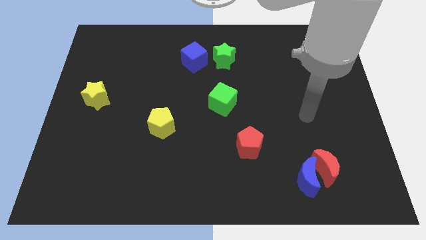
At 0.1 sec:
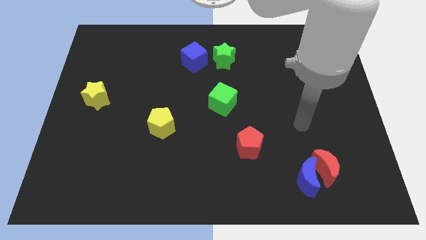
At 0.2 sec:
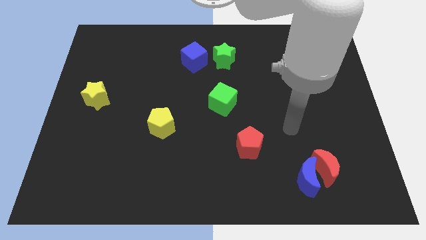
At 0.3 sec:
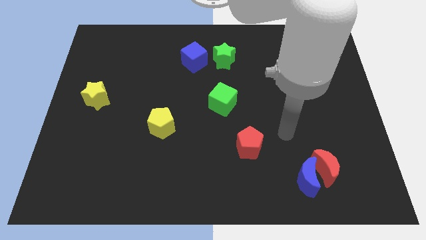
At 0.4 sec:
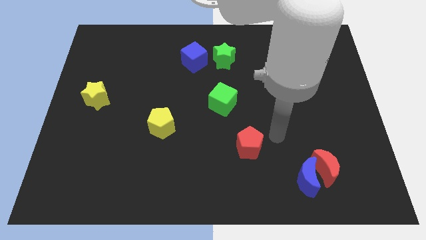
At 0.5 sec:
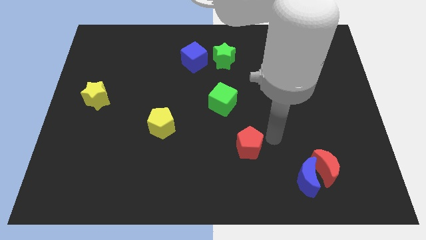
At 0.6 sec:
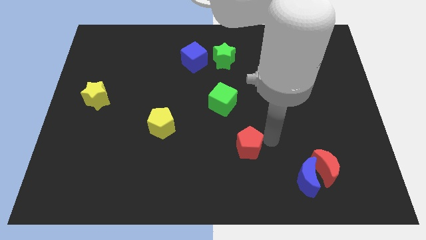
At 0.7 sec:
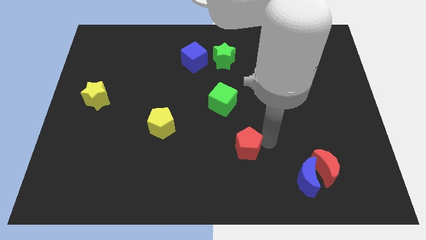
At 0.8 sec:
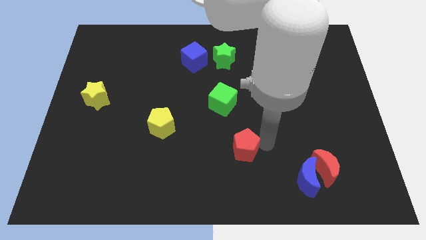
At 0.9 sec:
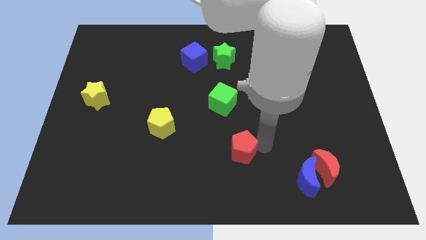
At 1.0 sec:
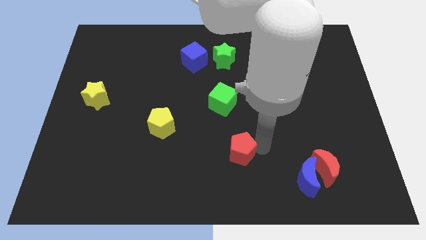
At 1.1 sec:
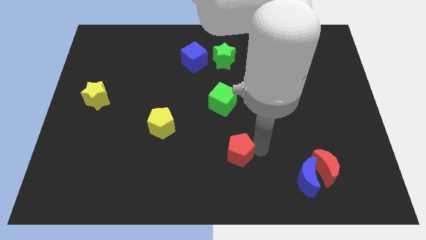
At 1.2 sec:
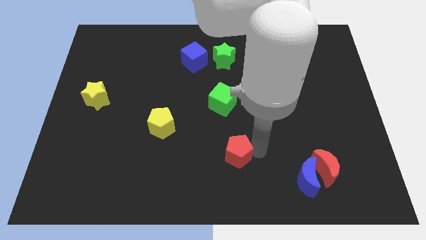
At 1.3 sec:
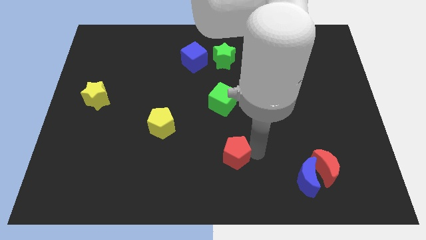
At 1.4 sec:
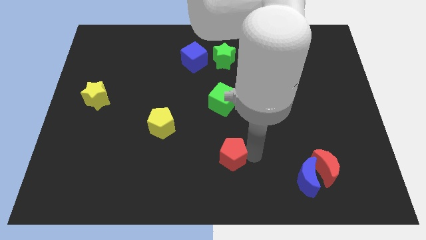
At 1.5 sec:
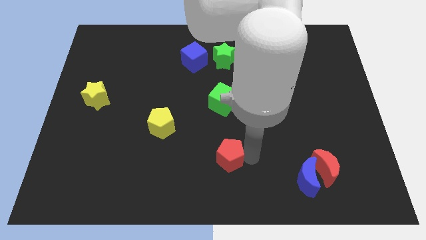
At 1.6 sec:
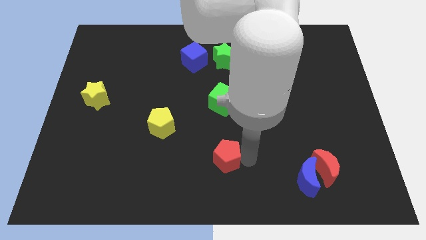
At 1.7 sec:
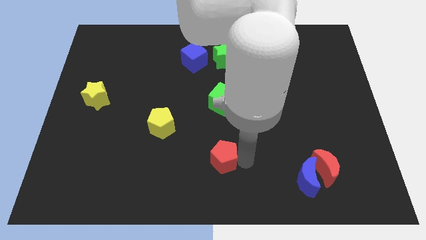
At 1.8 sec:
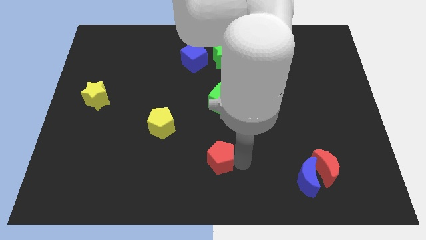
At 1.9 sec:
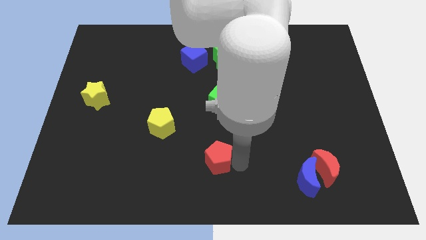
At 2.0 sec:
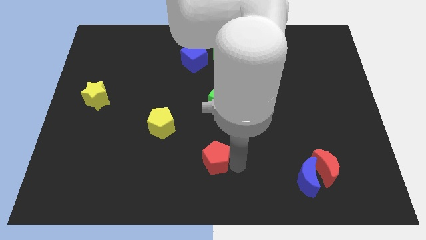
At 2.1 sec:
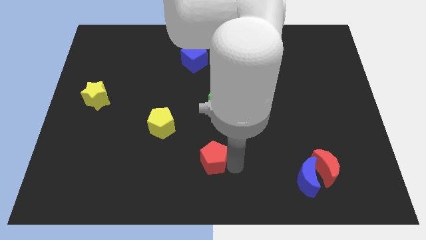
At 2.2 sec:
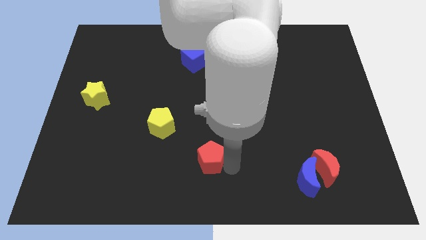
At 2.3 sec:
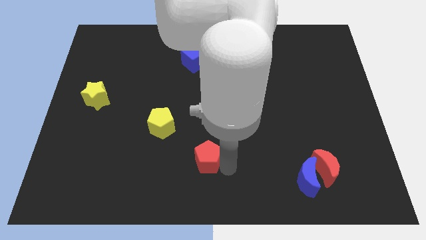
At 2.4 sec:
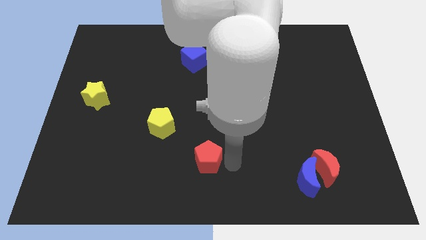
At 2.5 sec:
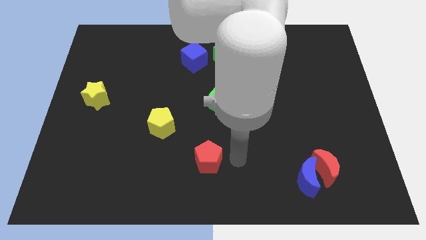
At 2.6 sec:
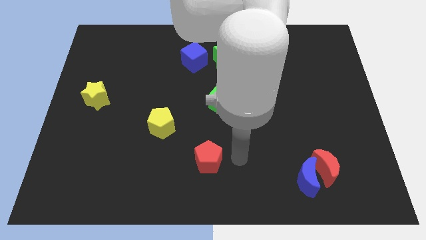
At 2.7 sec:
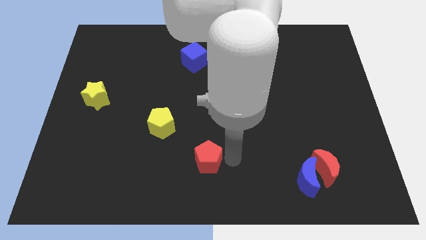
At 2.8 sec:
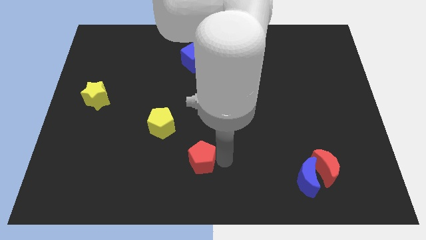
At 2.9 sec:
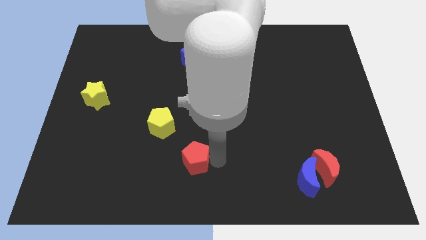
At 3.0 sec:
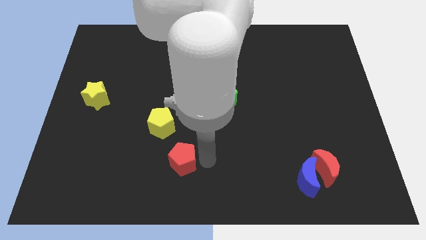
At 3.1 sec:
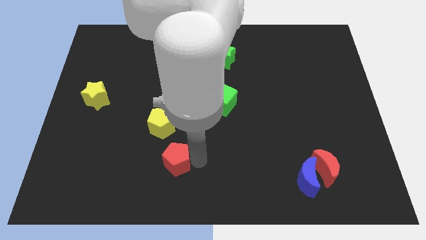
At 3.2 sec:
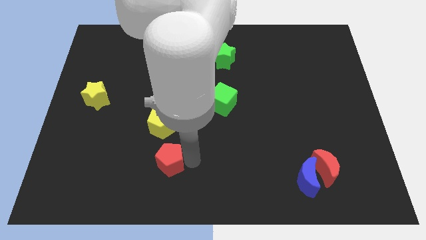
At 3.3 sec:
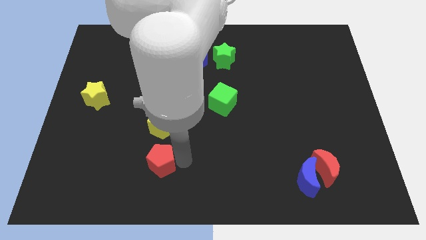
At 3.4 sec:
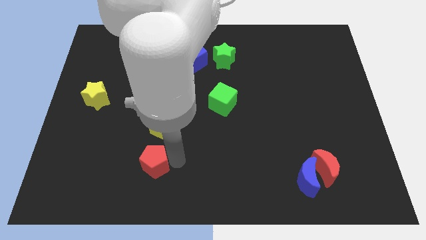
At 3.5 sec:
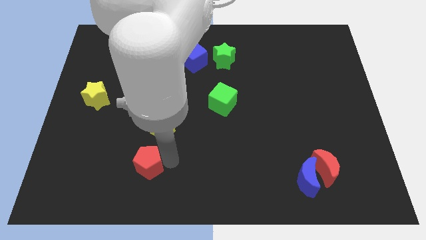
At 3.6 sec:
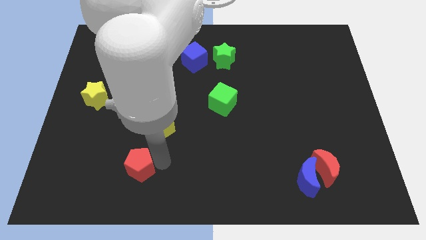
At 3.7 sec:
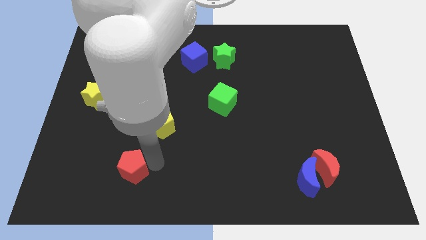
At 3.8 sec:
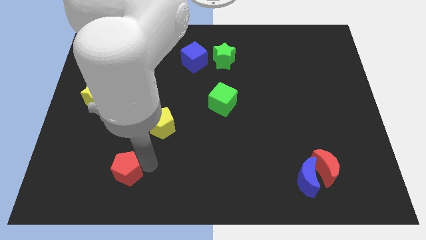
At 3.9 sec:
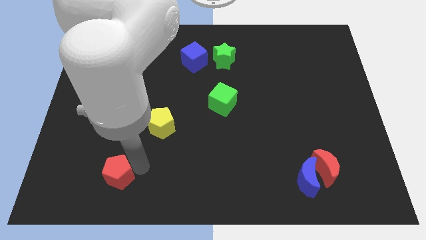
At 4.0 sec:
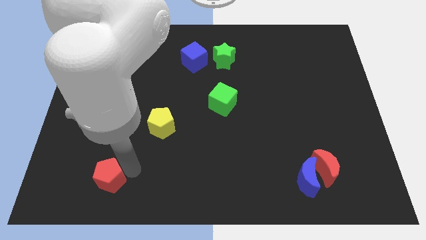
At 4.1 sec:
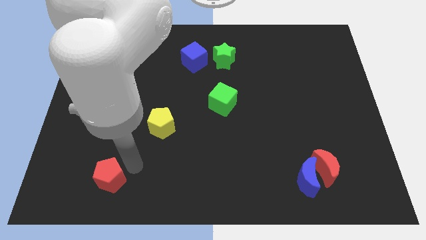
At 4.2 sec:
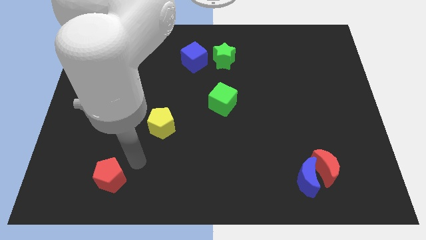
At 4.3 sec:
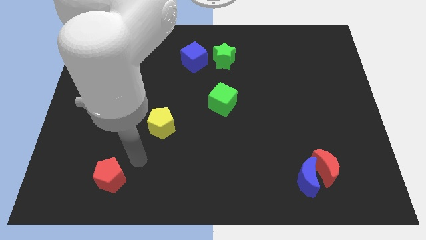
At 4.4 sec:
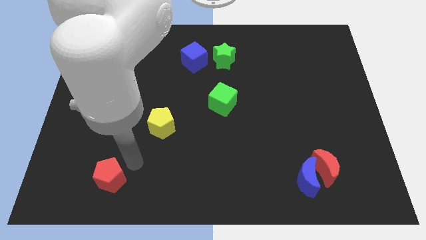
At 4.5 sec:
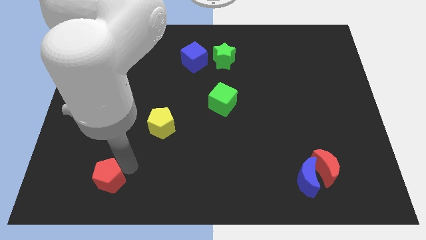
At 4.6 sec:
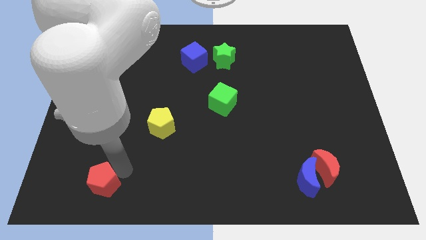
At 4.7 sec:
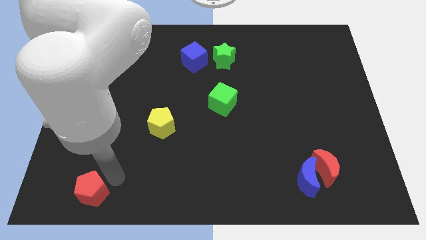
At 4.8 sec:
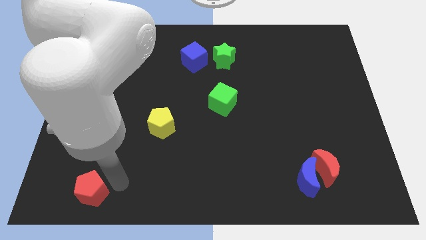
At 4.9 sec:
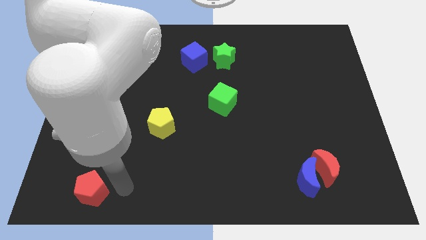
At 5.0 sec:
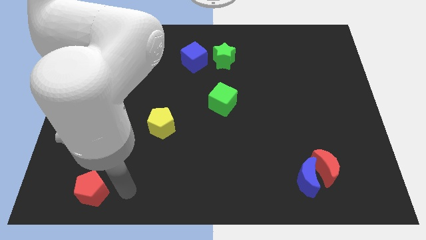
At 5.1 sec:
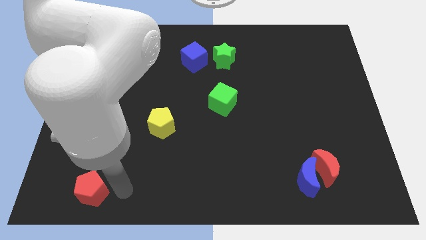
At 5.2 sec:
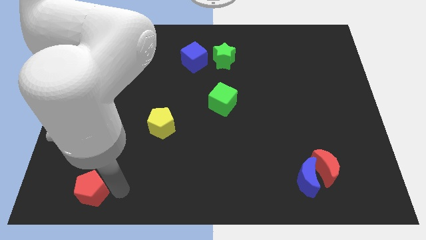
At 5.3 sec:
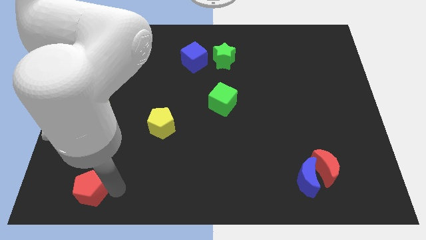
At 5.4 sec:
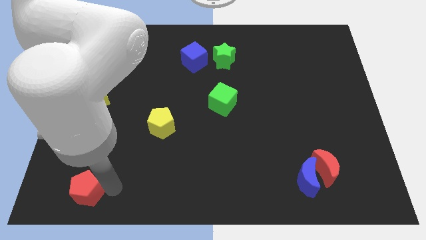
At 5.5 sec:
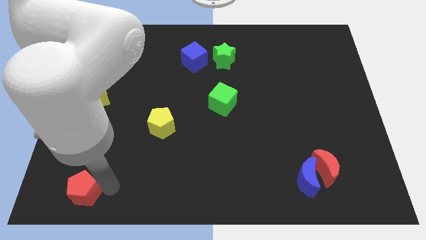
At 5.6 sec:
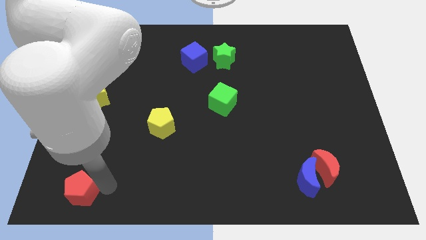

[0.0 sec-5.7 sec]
slide the red pentagon to the bottom left corner

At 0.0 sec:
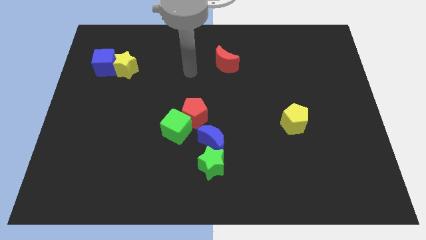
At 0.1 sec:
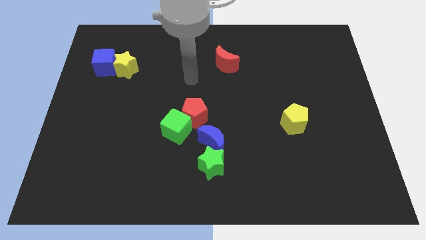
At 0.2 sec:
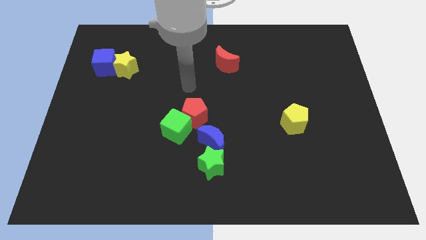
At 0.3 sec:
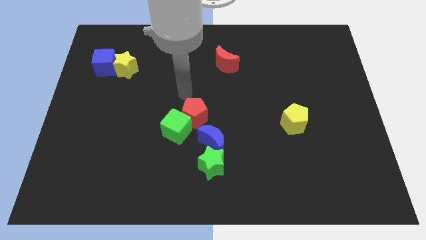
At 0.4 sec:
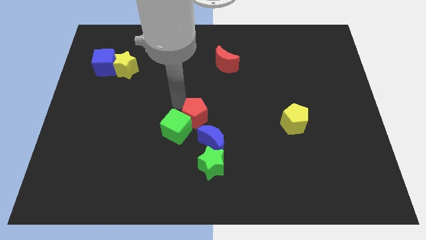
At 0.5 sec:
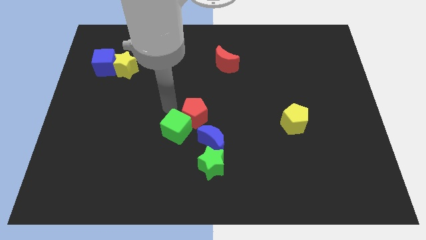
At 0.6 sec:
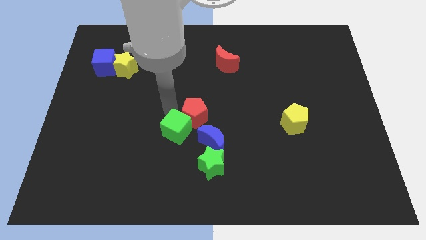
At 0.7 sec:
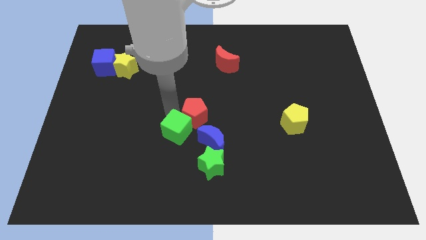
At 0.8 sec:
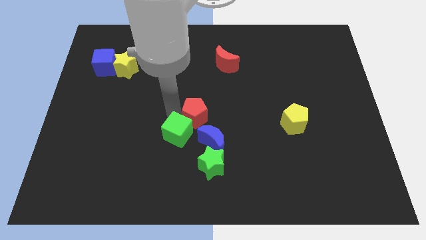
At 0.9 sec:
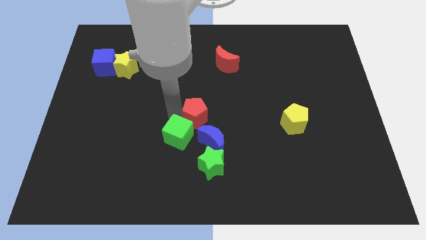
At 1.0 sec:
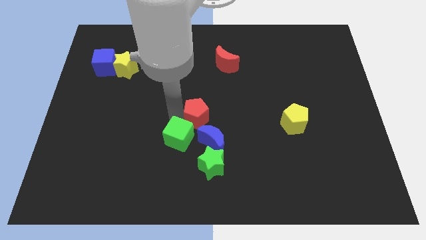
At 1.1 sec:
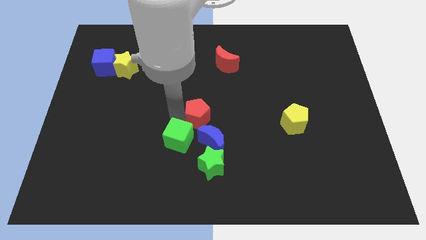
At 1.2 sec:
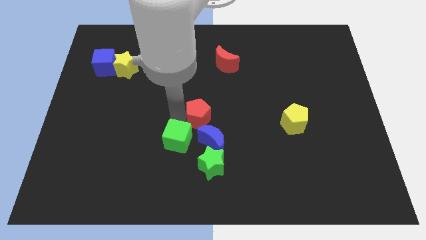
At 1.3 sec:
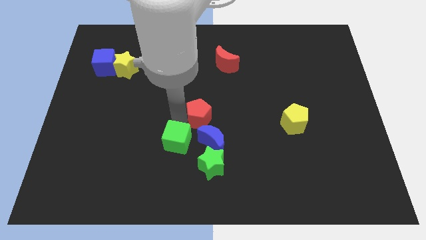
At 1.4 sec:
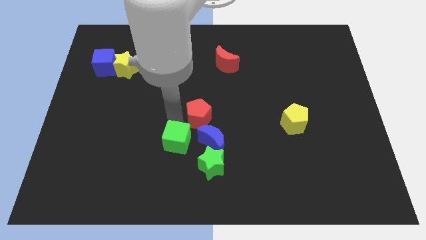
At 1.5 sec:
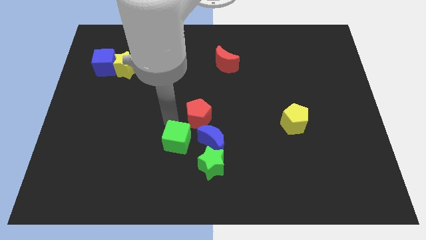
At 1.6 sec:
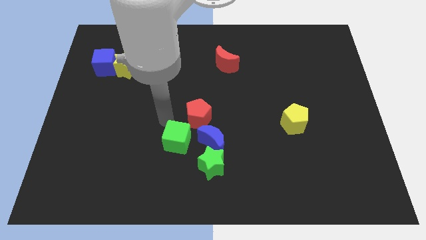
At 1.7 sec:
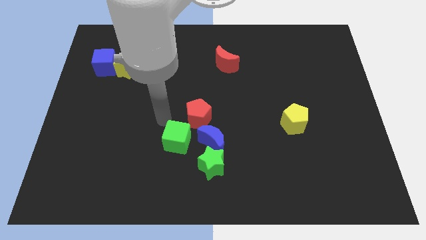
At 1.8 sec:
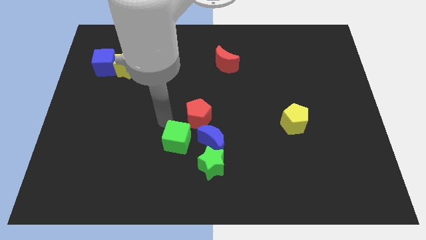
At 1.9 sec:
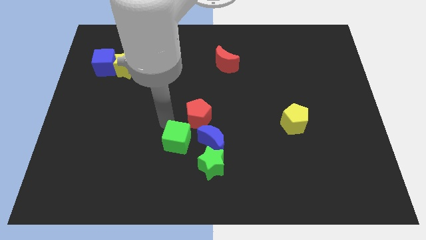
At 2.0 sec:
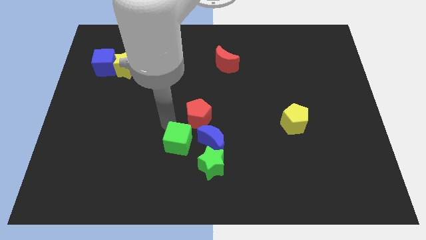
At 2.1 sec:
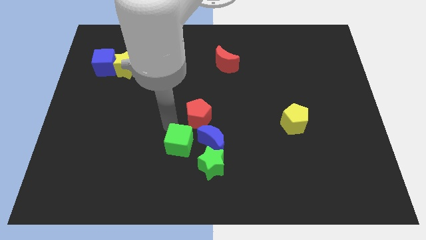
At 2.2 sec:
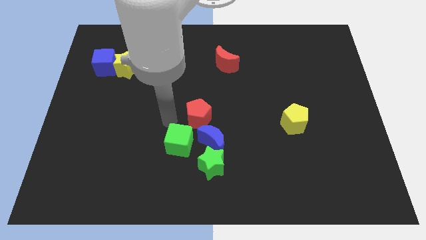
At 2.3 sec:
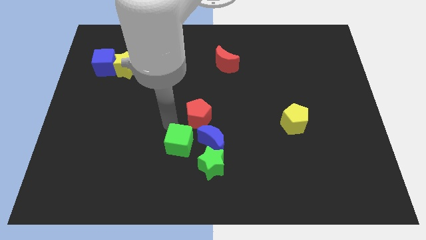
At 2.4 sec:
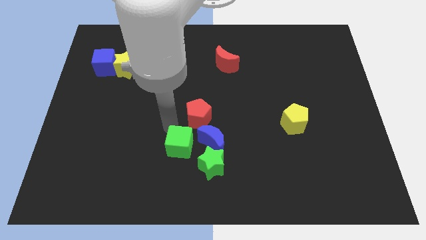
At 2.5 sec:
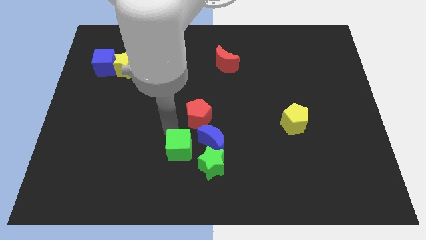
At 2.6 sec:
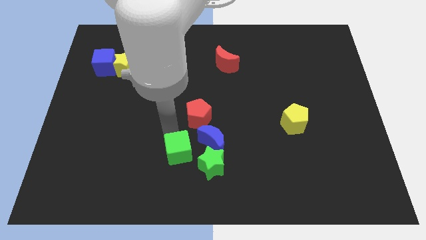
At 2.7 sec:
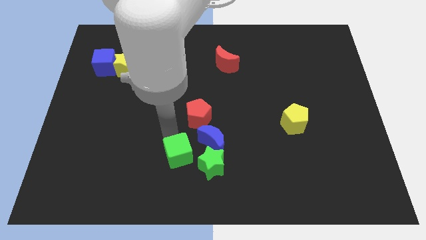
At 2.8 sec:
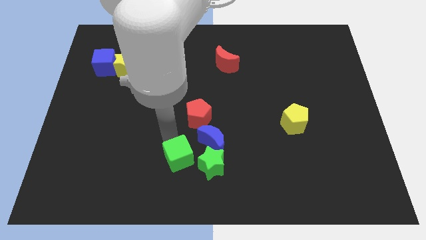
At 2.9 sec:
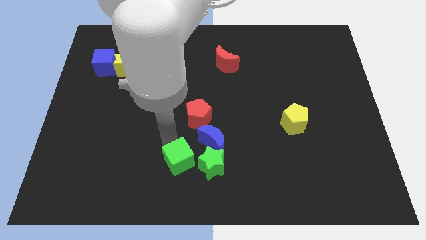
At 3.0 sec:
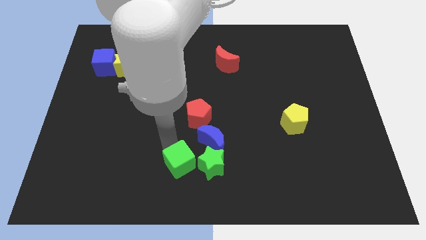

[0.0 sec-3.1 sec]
move the green cube to the bottom side
